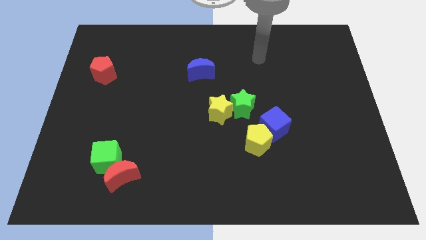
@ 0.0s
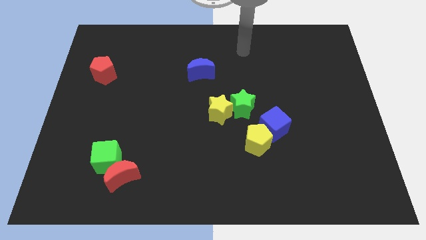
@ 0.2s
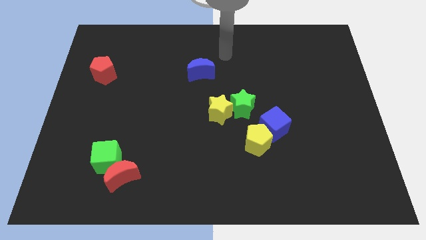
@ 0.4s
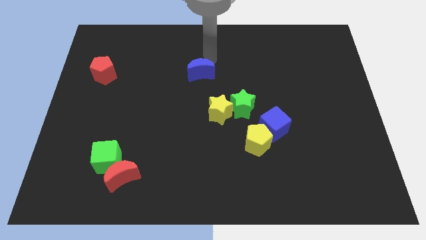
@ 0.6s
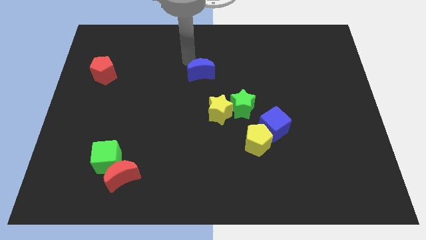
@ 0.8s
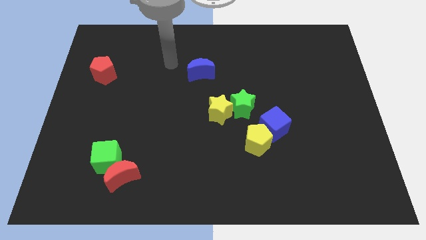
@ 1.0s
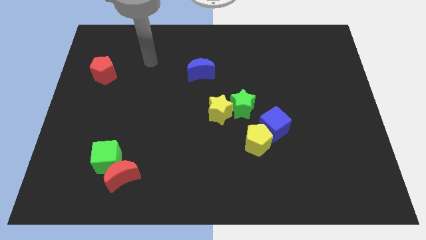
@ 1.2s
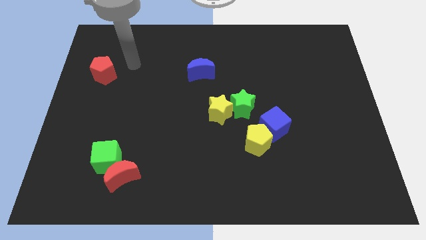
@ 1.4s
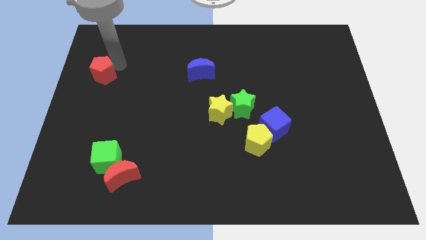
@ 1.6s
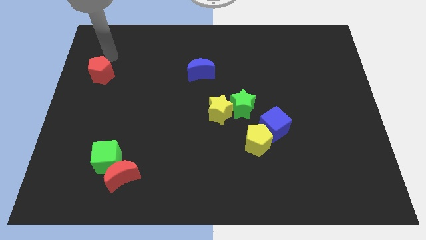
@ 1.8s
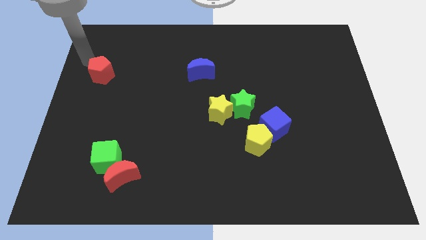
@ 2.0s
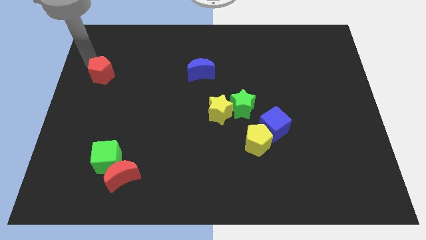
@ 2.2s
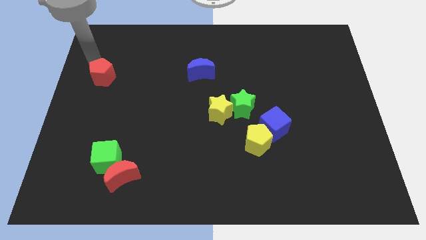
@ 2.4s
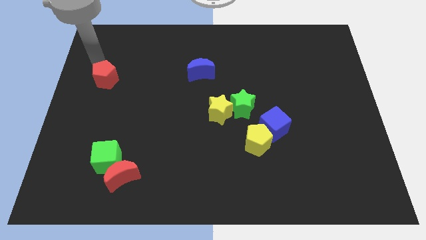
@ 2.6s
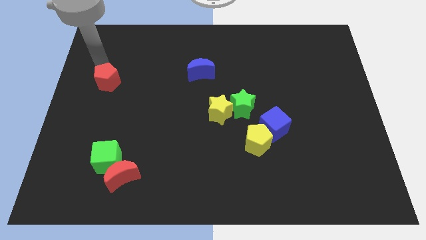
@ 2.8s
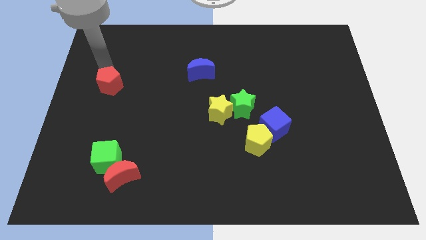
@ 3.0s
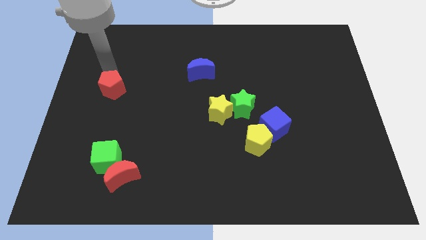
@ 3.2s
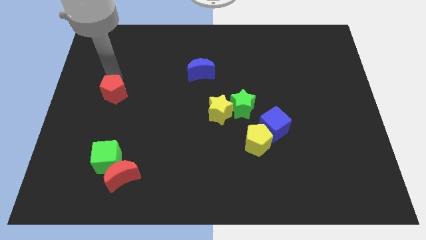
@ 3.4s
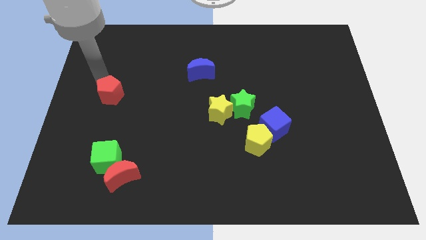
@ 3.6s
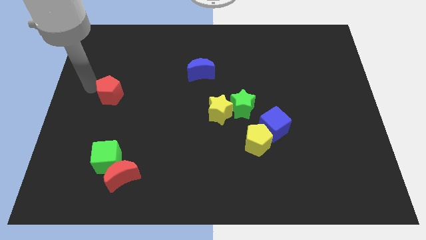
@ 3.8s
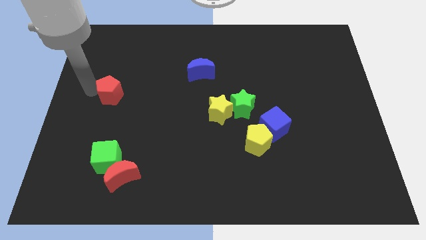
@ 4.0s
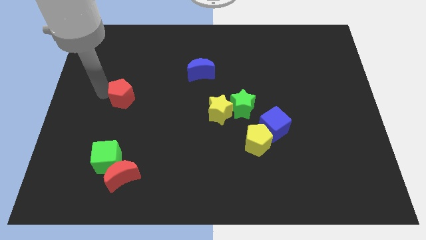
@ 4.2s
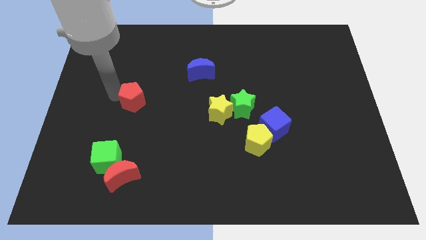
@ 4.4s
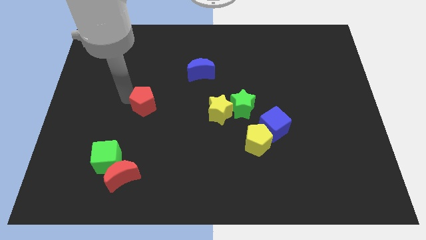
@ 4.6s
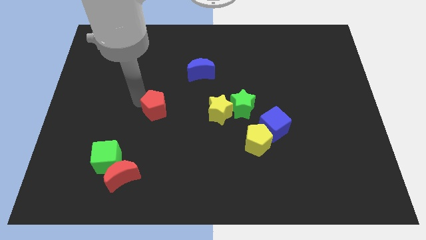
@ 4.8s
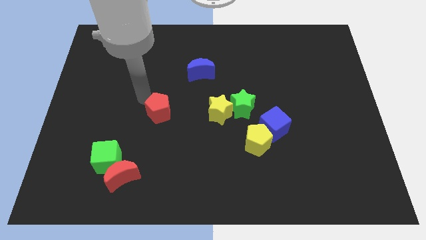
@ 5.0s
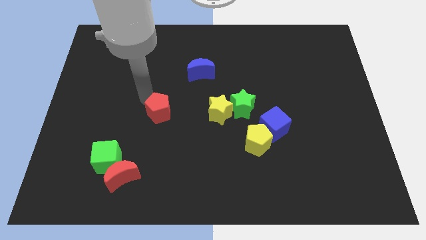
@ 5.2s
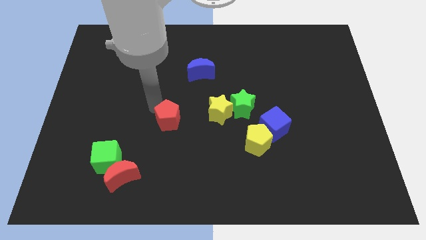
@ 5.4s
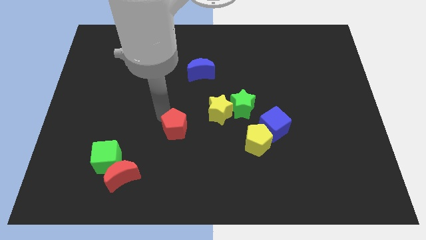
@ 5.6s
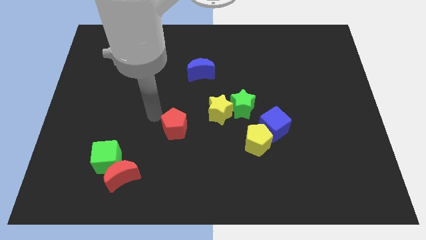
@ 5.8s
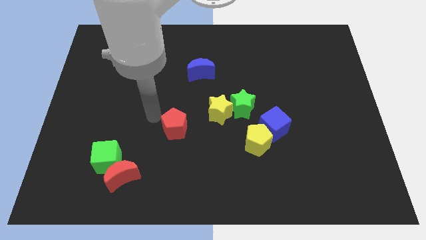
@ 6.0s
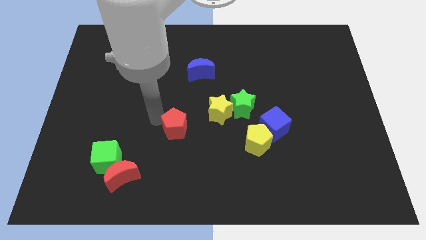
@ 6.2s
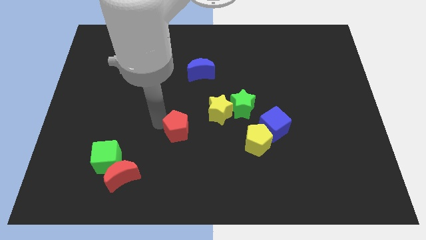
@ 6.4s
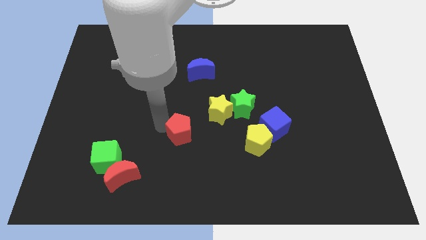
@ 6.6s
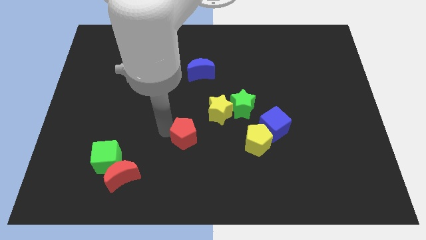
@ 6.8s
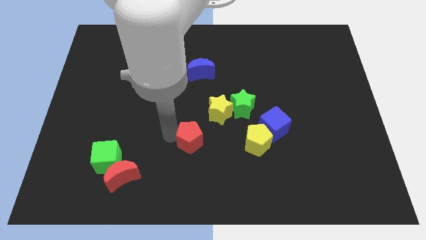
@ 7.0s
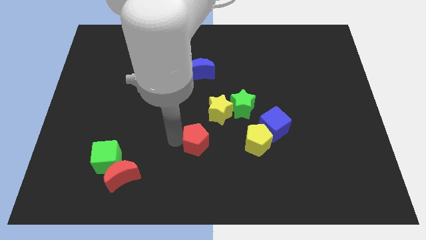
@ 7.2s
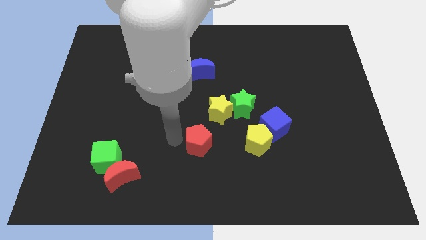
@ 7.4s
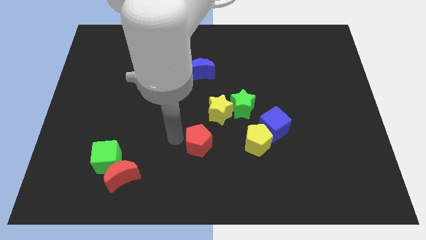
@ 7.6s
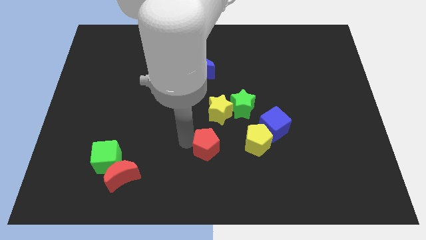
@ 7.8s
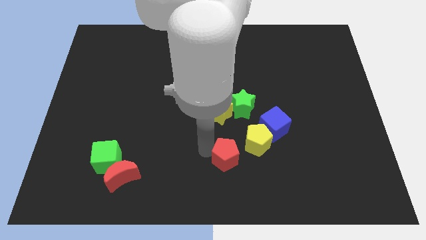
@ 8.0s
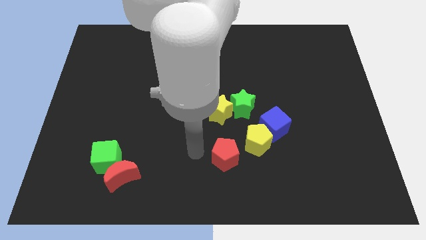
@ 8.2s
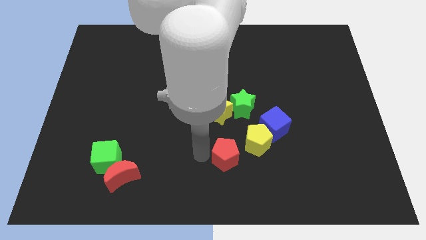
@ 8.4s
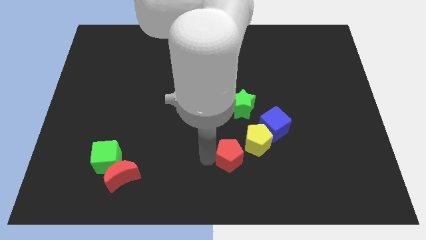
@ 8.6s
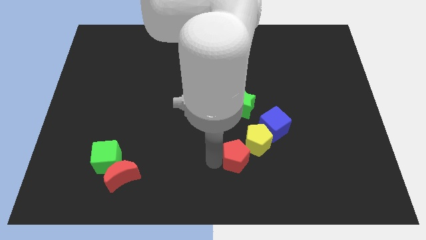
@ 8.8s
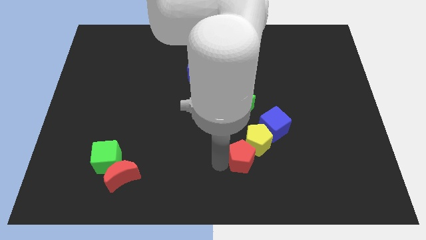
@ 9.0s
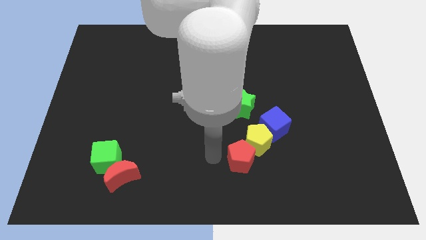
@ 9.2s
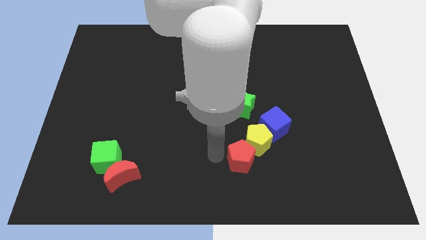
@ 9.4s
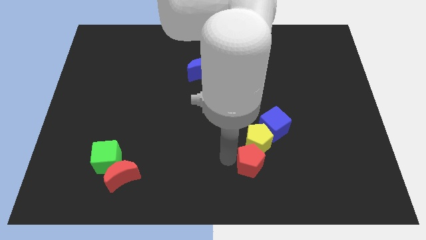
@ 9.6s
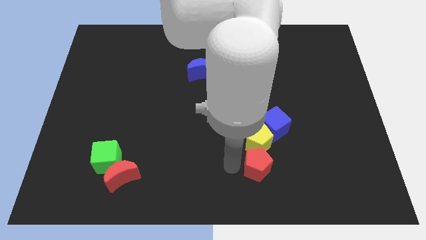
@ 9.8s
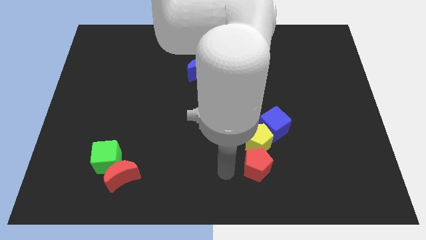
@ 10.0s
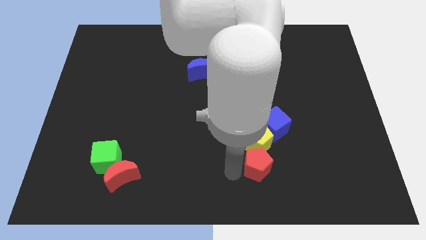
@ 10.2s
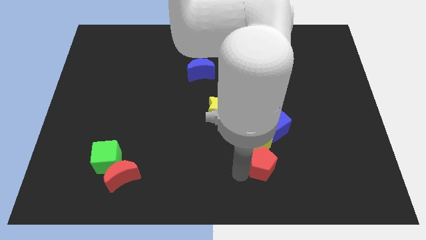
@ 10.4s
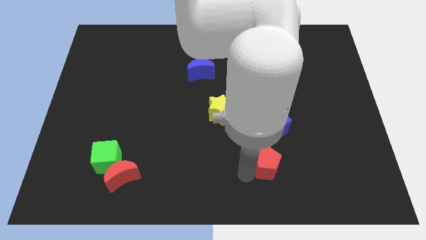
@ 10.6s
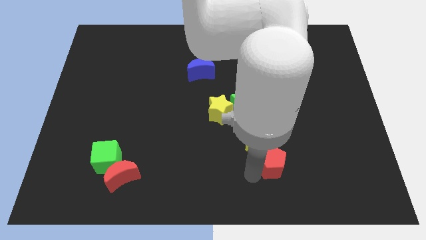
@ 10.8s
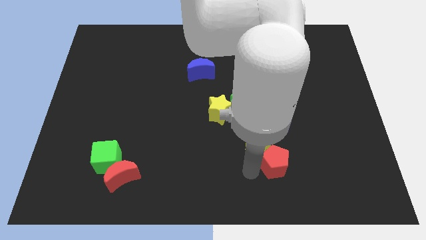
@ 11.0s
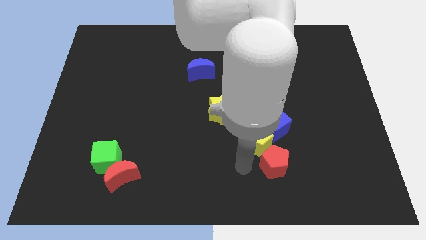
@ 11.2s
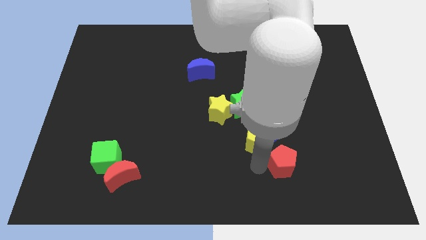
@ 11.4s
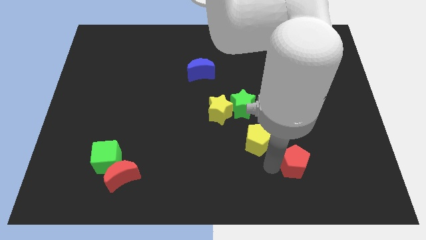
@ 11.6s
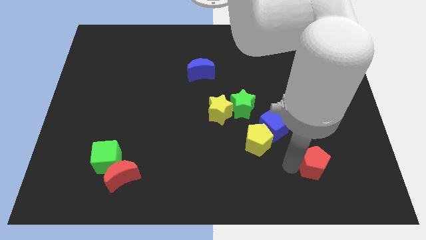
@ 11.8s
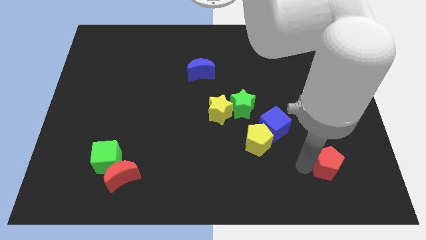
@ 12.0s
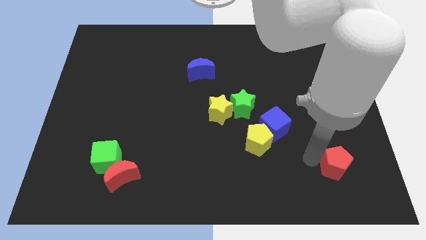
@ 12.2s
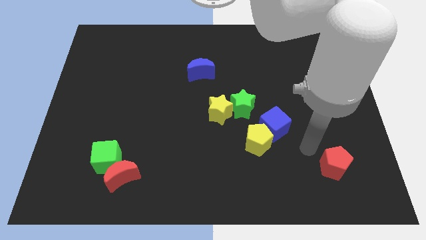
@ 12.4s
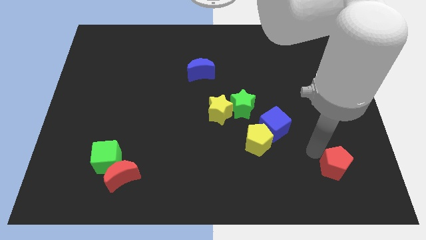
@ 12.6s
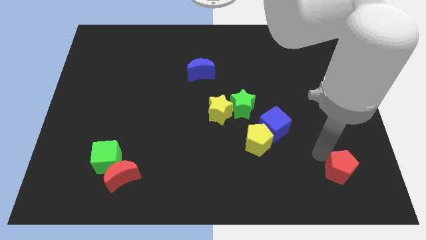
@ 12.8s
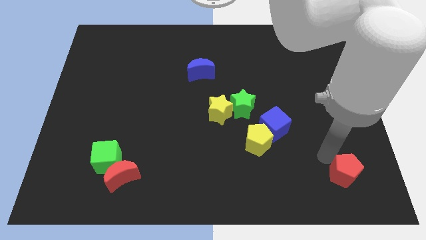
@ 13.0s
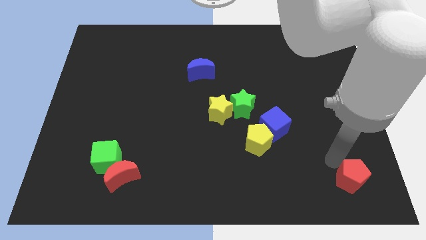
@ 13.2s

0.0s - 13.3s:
put the red pentagon to the lower right corner

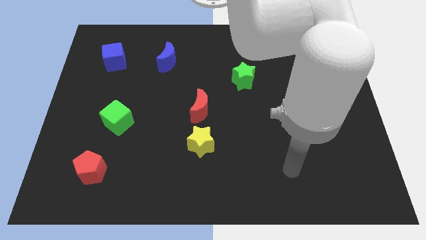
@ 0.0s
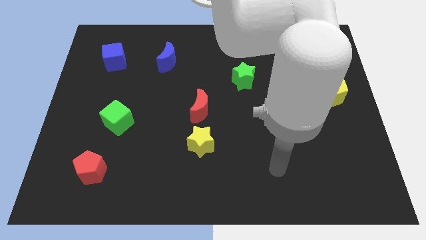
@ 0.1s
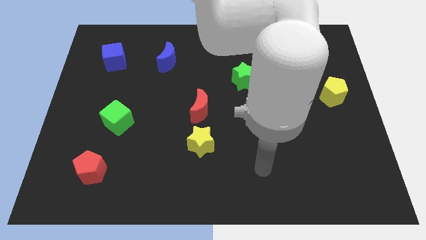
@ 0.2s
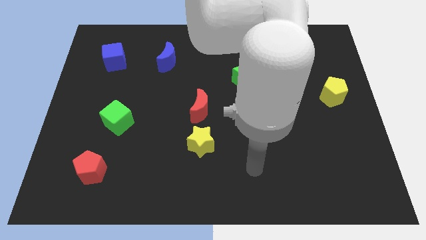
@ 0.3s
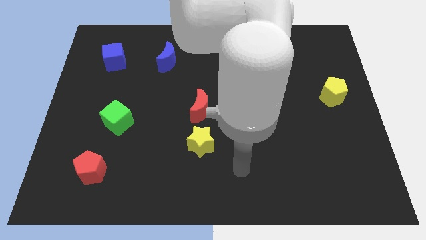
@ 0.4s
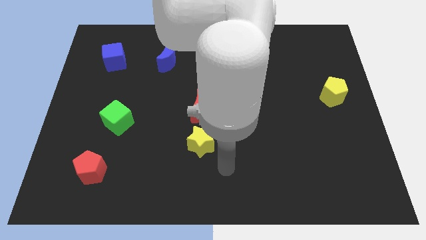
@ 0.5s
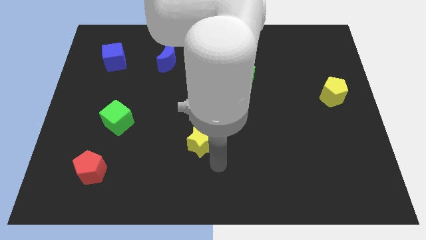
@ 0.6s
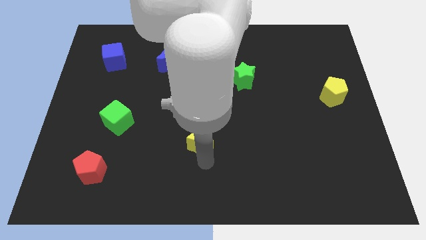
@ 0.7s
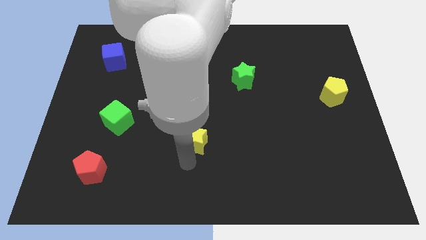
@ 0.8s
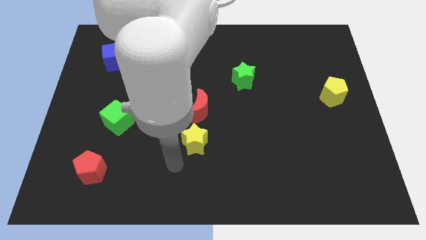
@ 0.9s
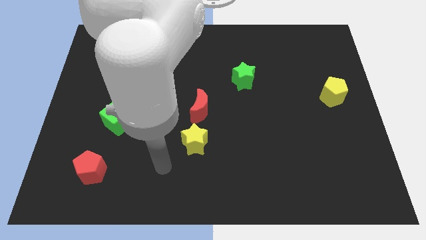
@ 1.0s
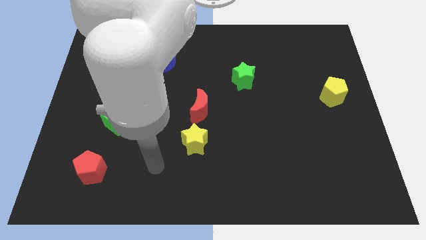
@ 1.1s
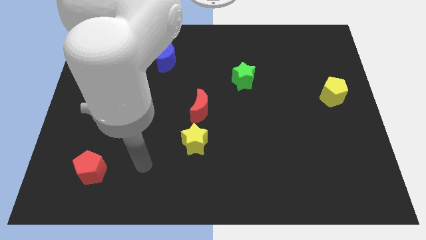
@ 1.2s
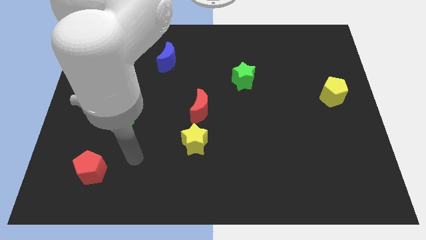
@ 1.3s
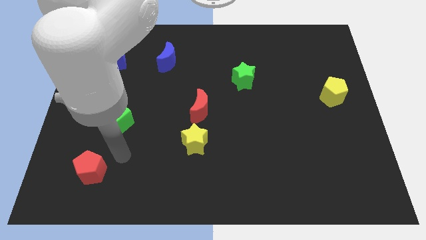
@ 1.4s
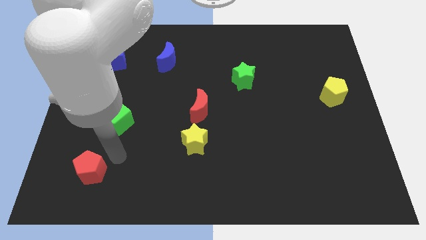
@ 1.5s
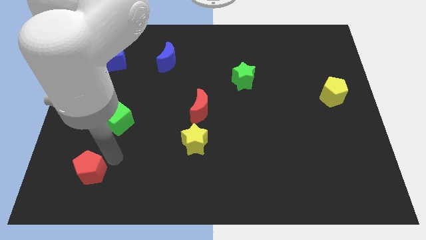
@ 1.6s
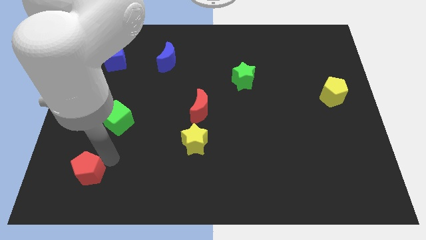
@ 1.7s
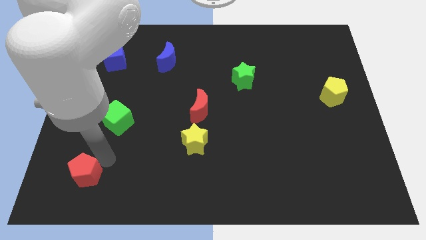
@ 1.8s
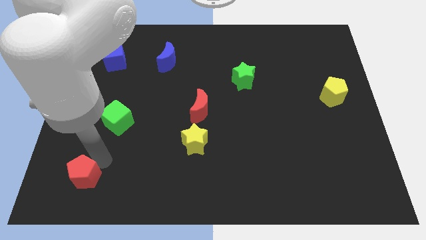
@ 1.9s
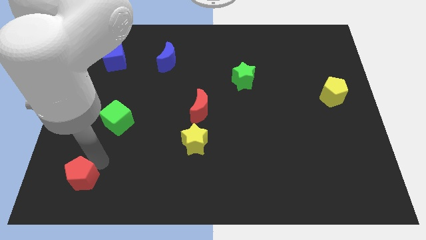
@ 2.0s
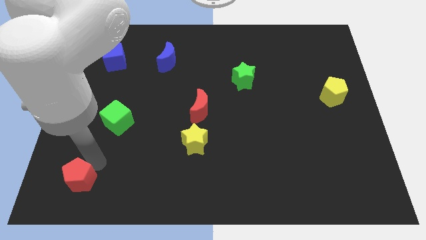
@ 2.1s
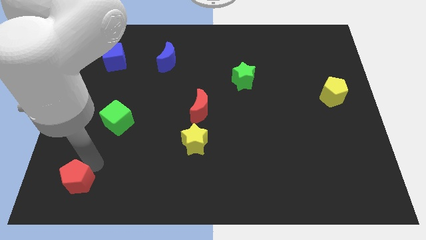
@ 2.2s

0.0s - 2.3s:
slide the red pentagon to the bottom left
